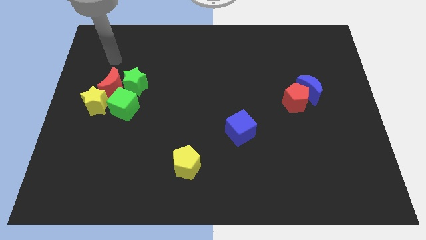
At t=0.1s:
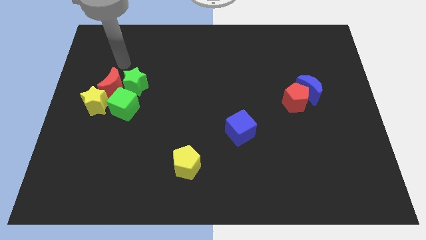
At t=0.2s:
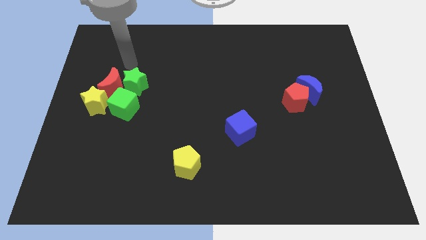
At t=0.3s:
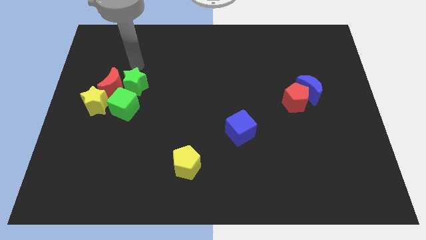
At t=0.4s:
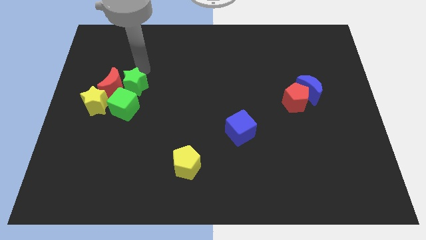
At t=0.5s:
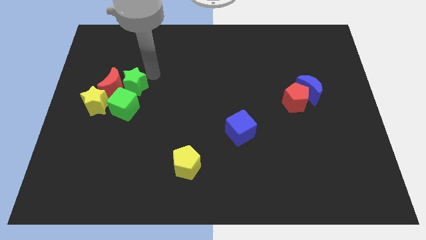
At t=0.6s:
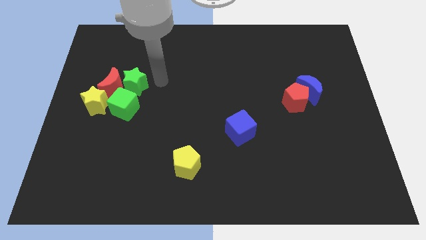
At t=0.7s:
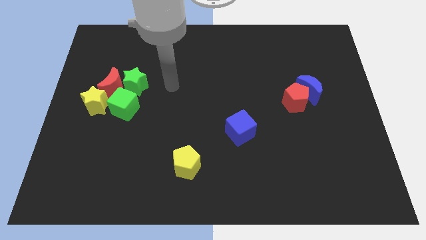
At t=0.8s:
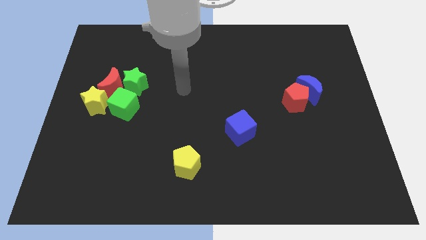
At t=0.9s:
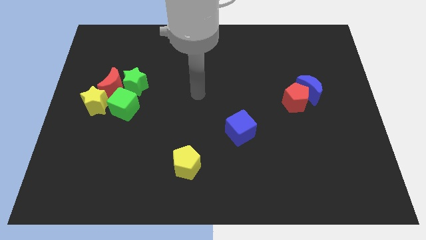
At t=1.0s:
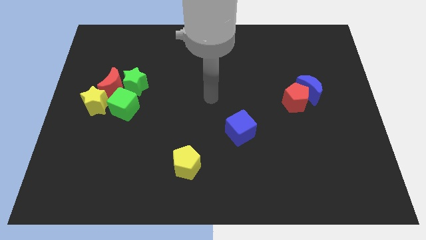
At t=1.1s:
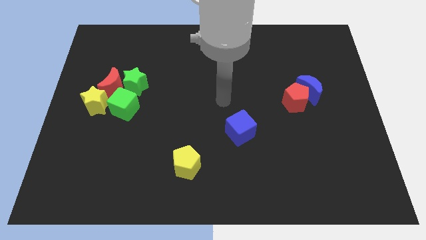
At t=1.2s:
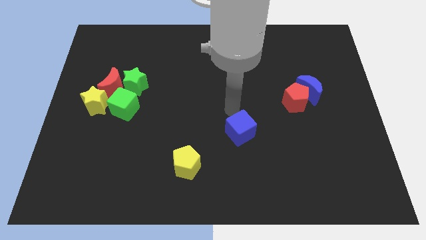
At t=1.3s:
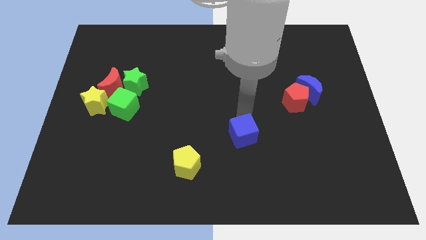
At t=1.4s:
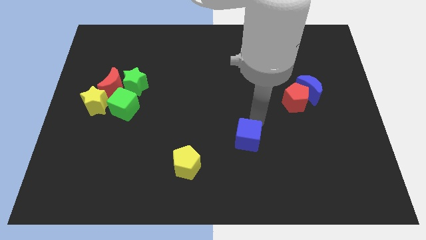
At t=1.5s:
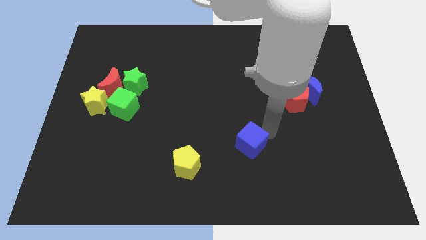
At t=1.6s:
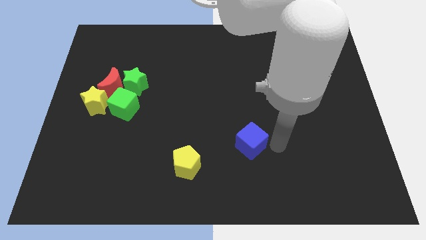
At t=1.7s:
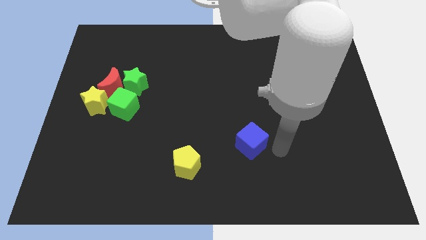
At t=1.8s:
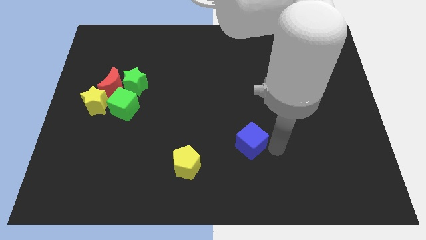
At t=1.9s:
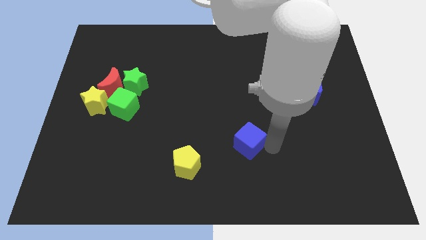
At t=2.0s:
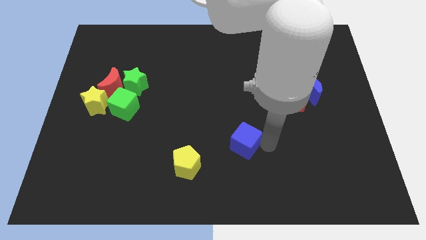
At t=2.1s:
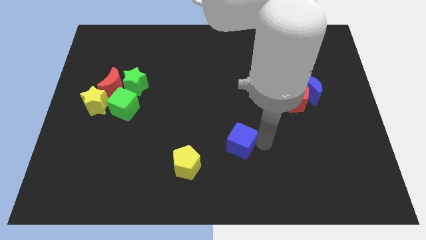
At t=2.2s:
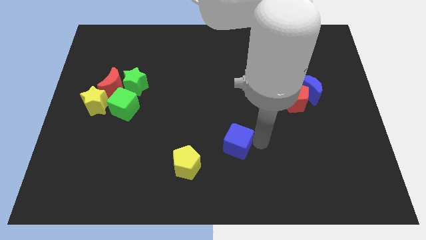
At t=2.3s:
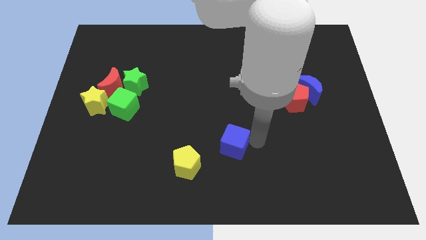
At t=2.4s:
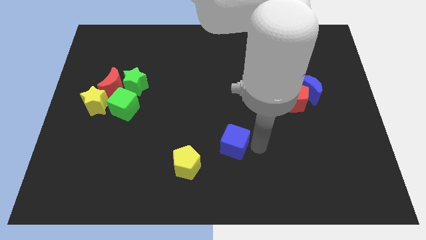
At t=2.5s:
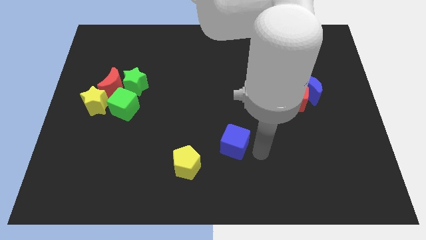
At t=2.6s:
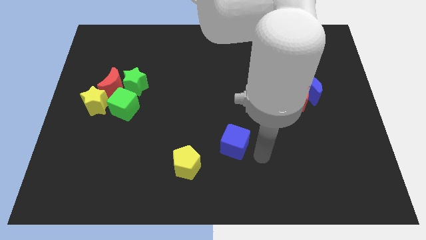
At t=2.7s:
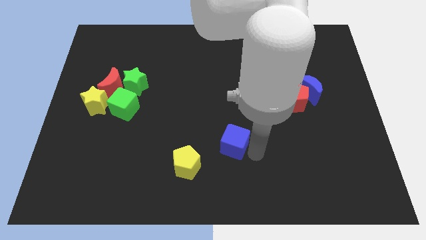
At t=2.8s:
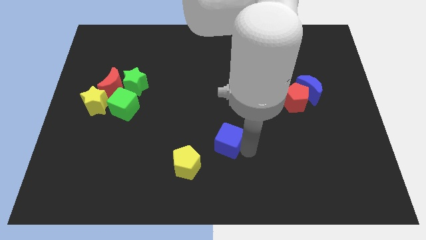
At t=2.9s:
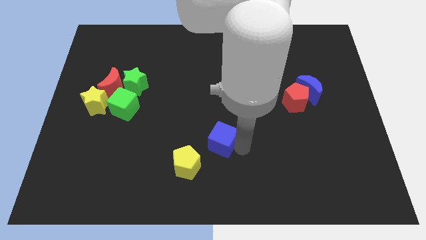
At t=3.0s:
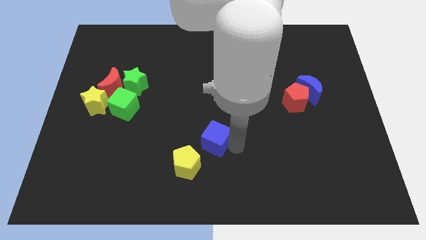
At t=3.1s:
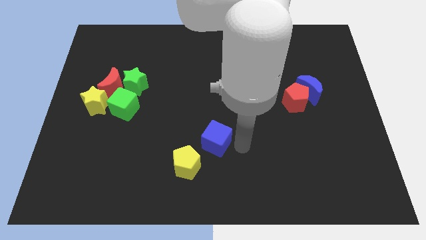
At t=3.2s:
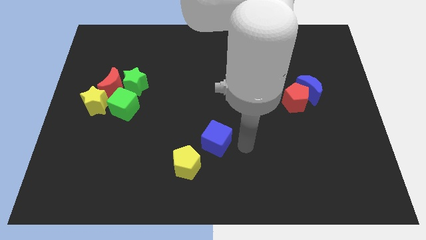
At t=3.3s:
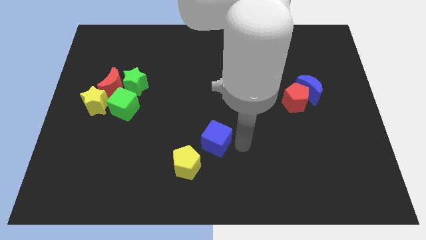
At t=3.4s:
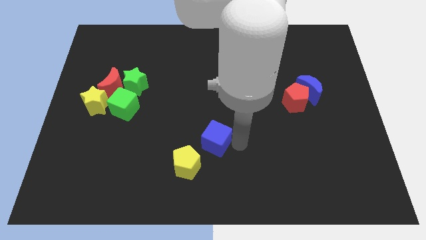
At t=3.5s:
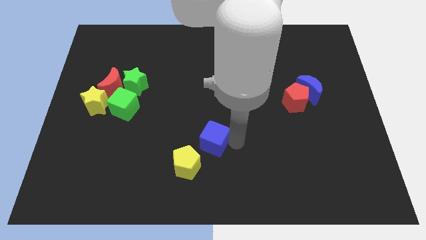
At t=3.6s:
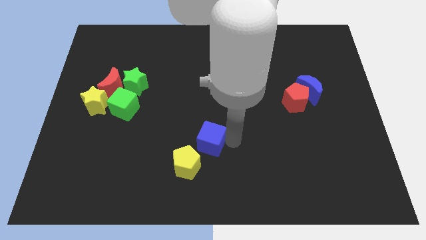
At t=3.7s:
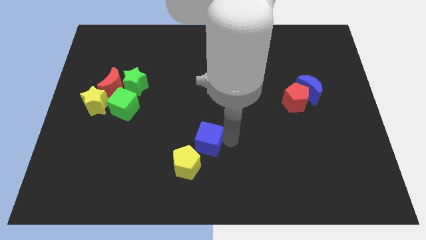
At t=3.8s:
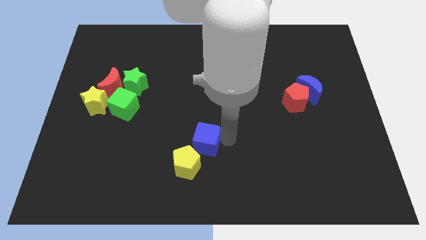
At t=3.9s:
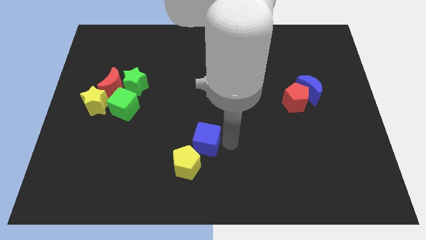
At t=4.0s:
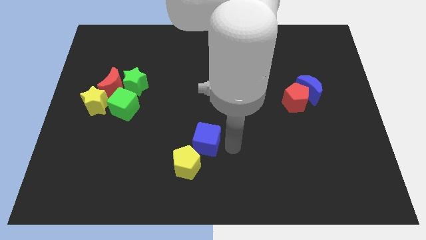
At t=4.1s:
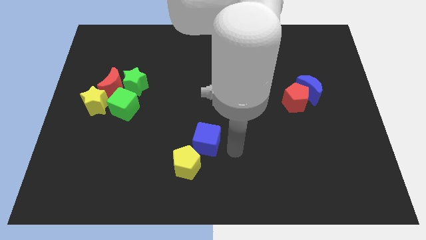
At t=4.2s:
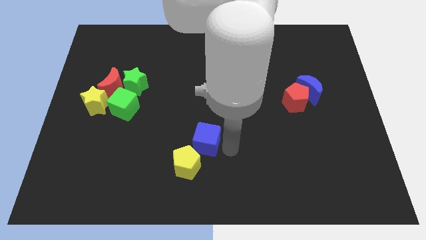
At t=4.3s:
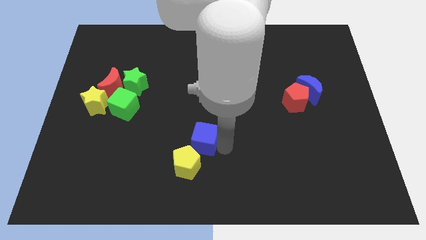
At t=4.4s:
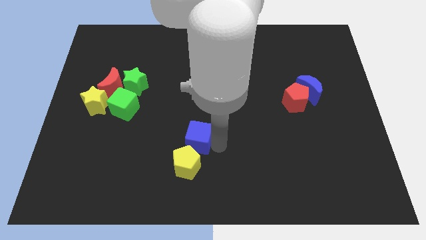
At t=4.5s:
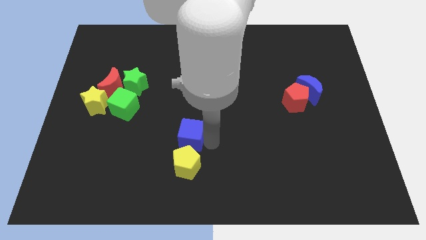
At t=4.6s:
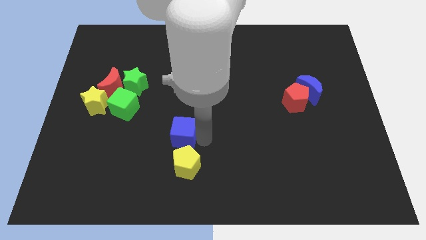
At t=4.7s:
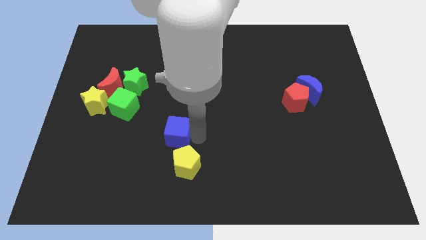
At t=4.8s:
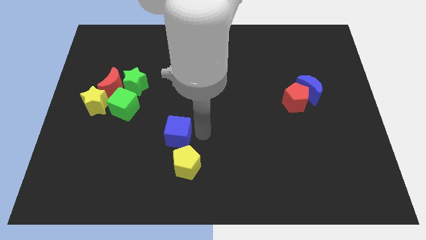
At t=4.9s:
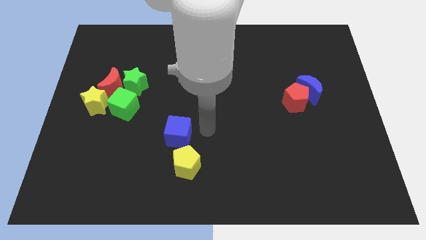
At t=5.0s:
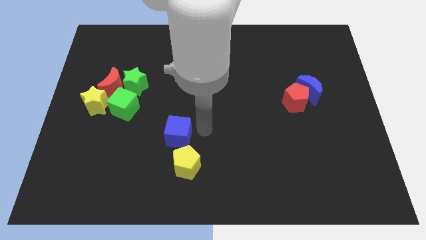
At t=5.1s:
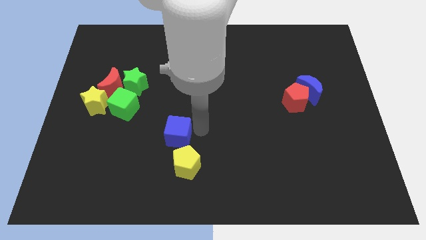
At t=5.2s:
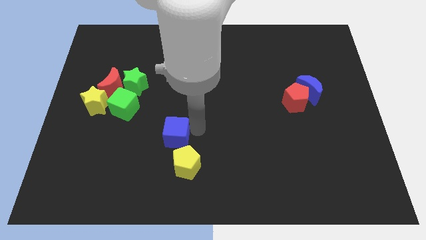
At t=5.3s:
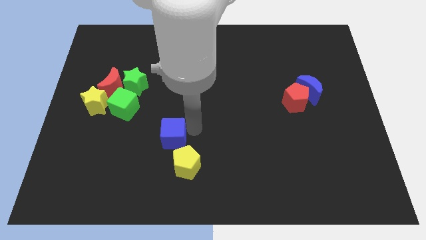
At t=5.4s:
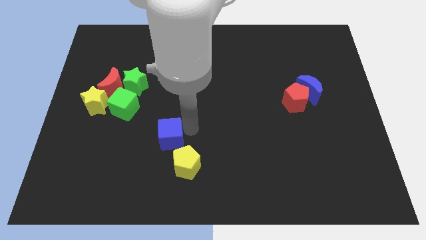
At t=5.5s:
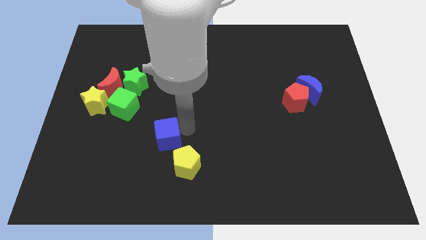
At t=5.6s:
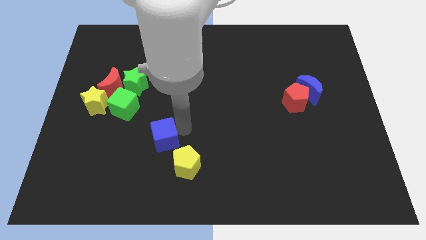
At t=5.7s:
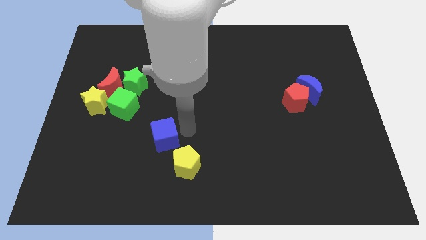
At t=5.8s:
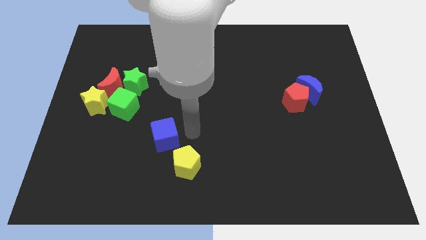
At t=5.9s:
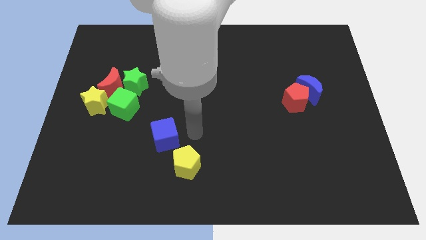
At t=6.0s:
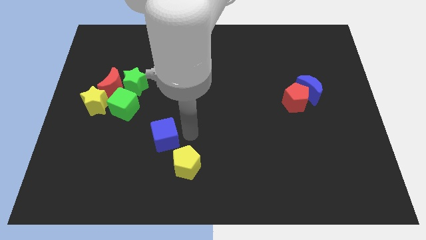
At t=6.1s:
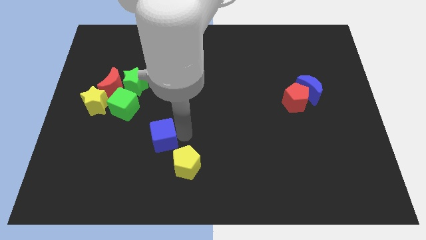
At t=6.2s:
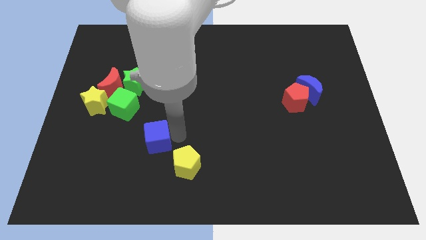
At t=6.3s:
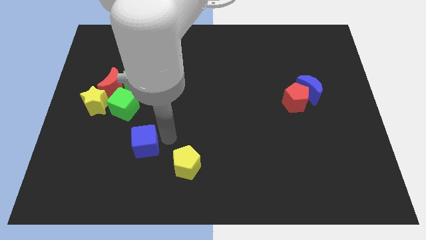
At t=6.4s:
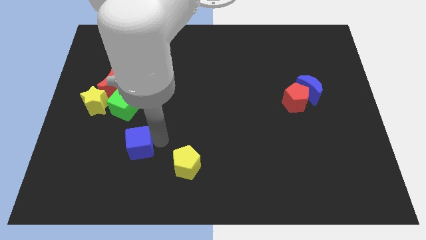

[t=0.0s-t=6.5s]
move the blue cube below the green cube

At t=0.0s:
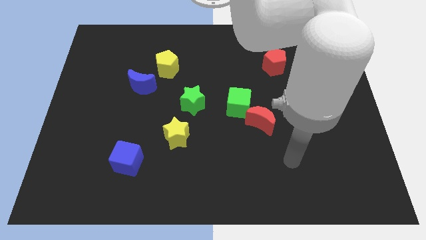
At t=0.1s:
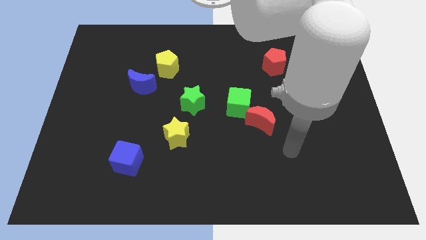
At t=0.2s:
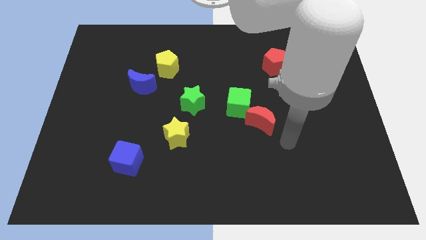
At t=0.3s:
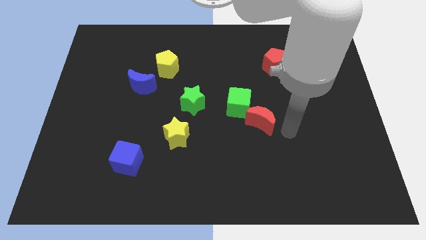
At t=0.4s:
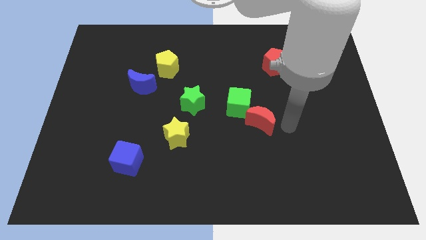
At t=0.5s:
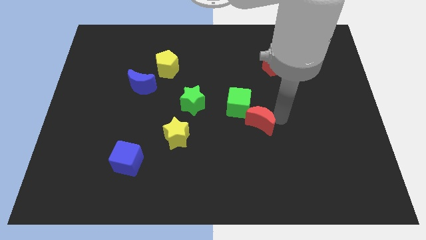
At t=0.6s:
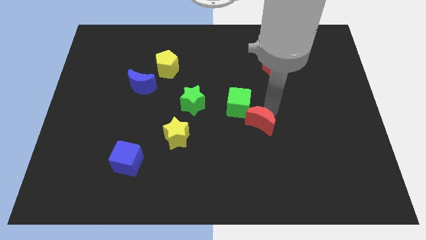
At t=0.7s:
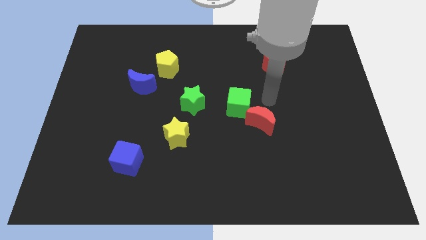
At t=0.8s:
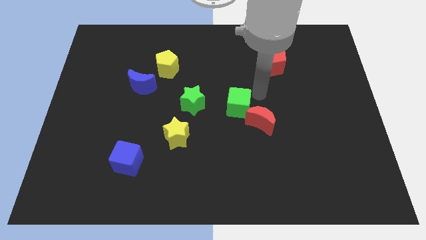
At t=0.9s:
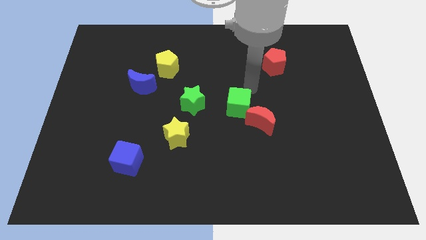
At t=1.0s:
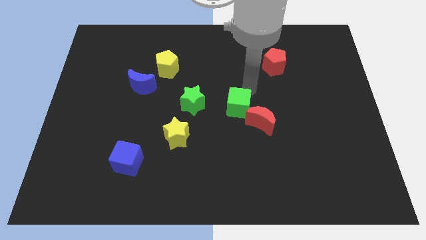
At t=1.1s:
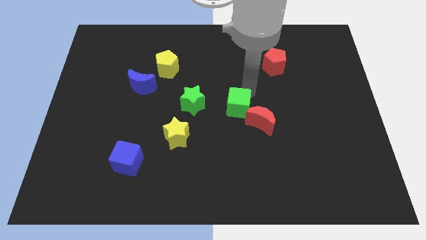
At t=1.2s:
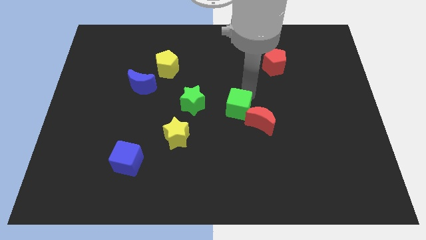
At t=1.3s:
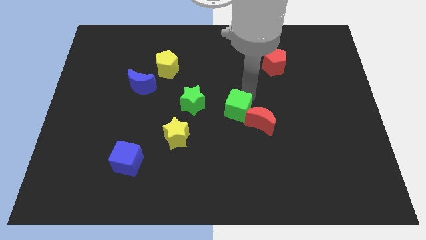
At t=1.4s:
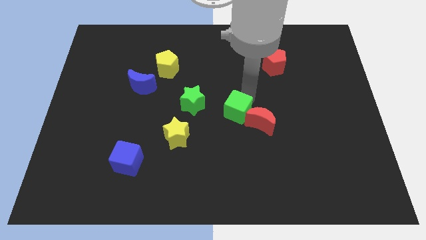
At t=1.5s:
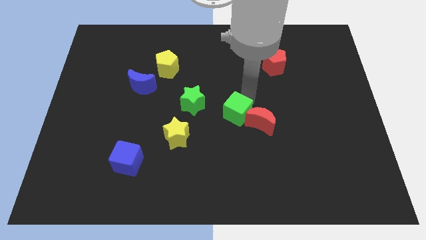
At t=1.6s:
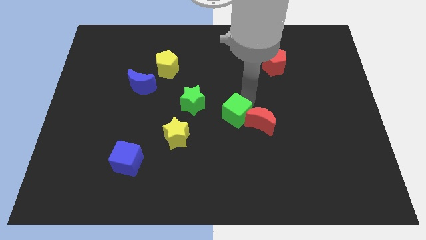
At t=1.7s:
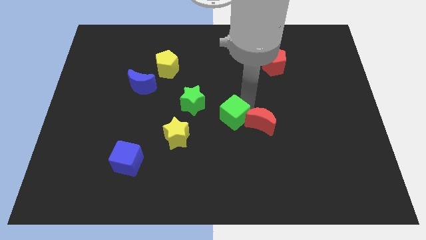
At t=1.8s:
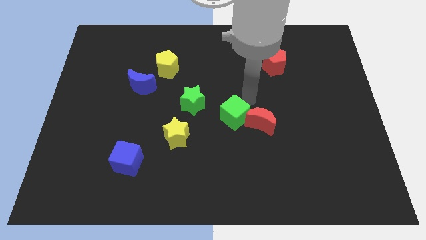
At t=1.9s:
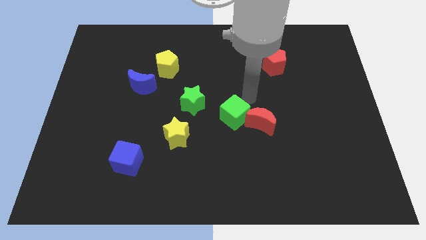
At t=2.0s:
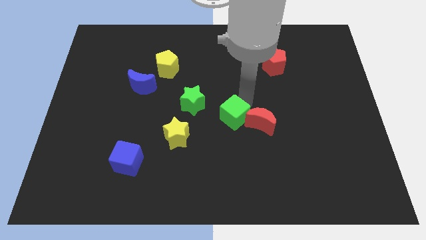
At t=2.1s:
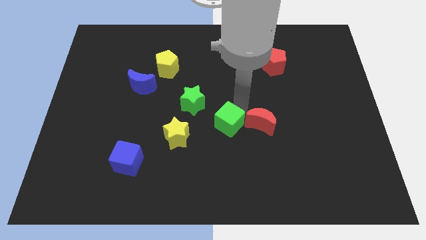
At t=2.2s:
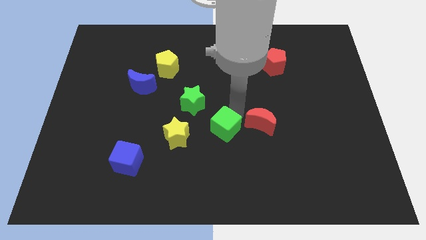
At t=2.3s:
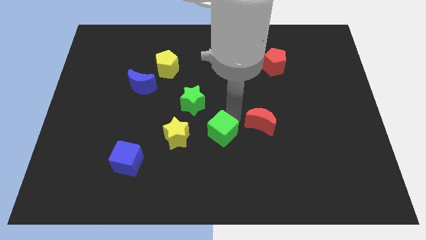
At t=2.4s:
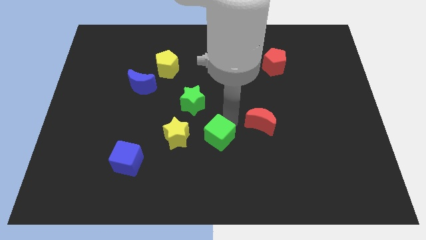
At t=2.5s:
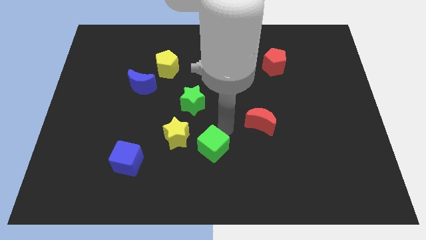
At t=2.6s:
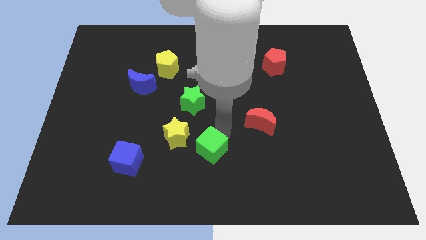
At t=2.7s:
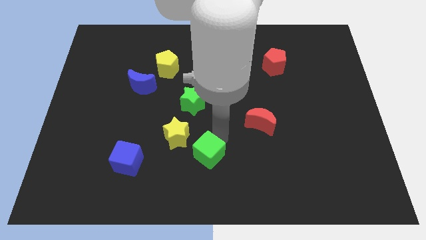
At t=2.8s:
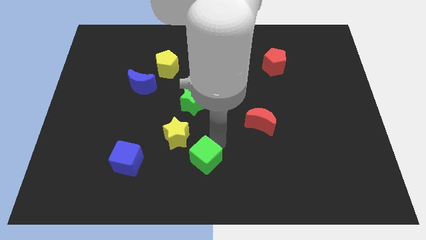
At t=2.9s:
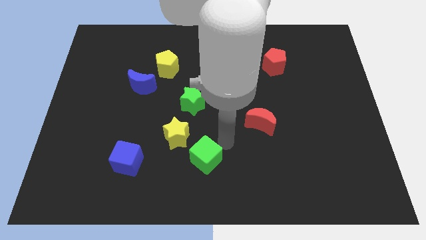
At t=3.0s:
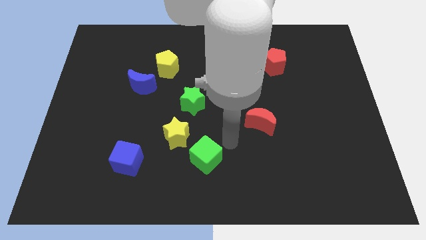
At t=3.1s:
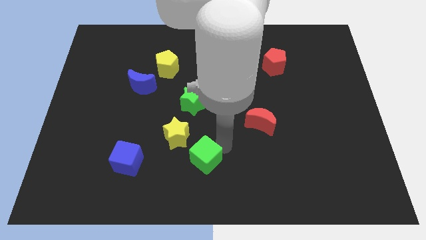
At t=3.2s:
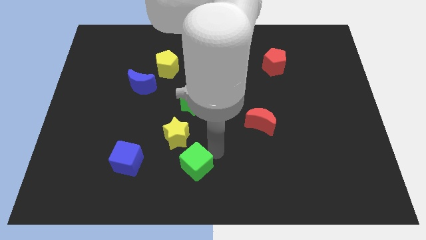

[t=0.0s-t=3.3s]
put the green cube below the yellow star
